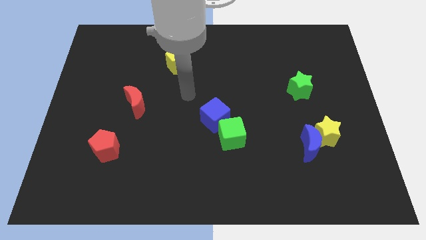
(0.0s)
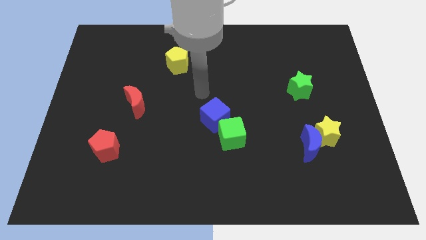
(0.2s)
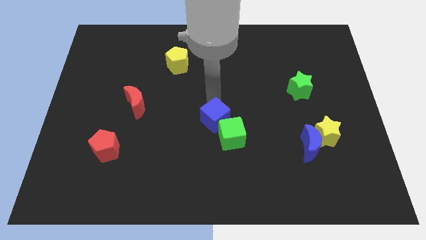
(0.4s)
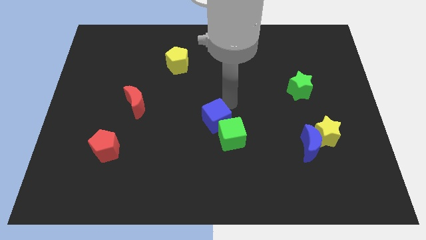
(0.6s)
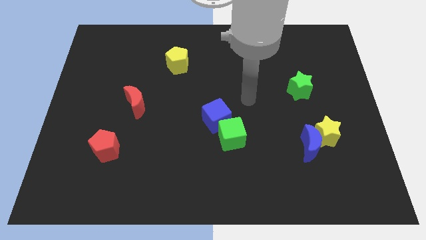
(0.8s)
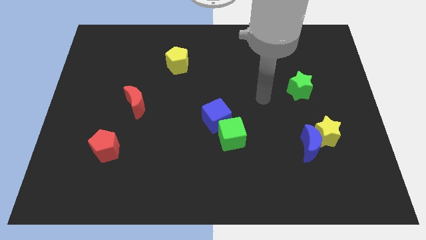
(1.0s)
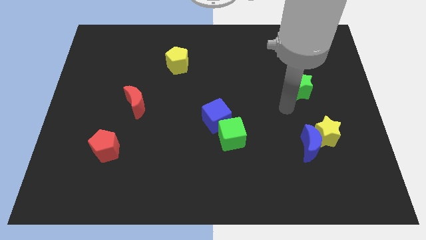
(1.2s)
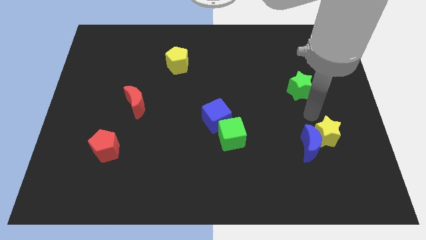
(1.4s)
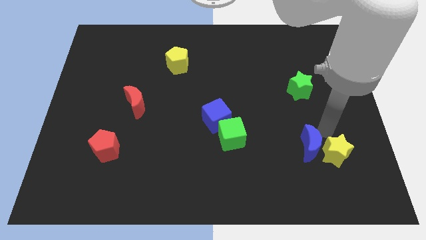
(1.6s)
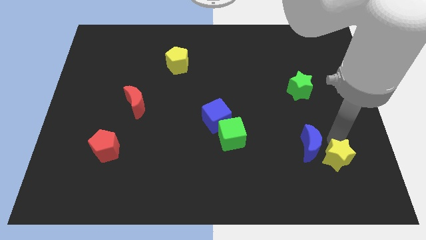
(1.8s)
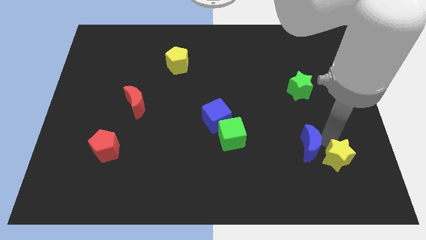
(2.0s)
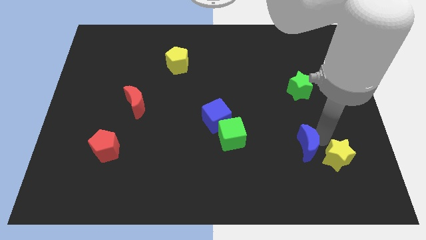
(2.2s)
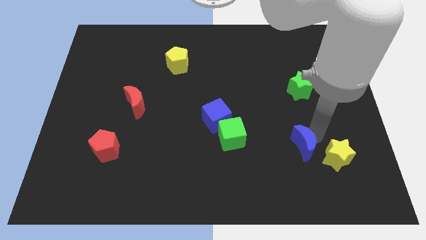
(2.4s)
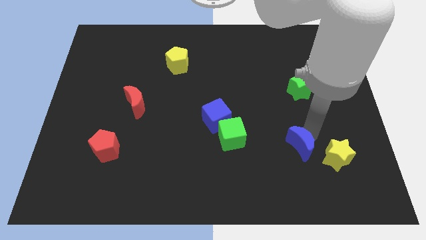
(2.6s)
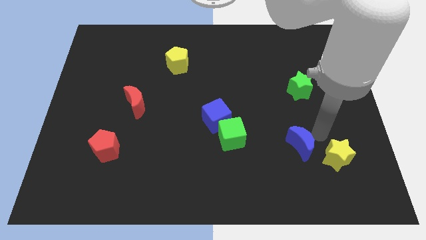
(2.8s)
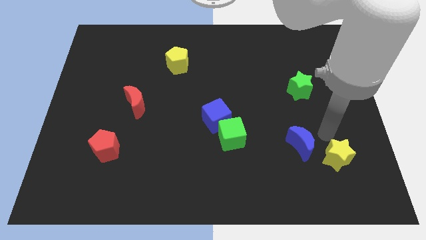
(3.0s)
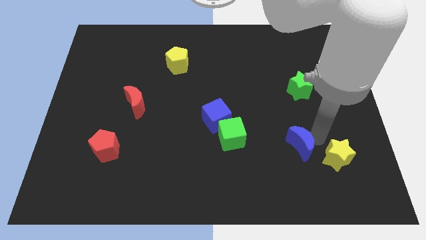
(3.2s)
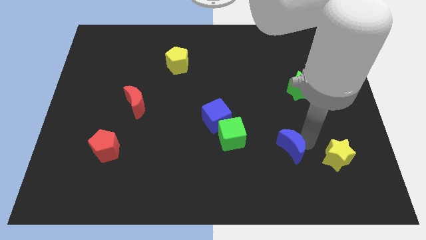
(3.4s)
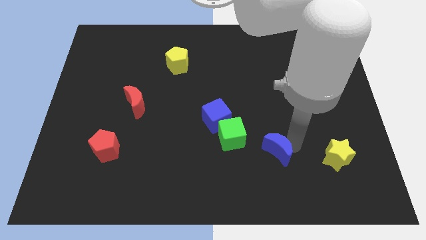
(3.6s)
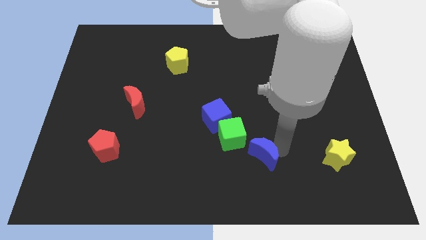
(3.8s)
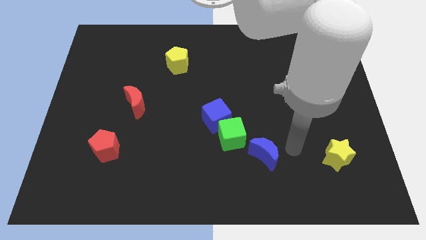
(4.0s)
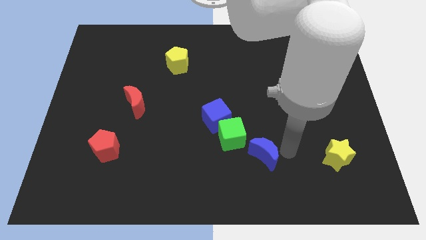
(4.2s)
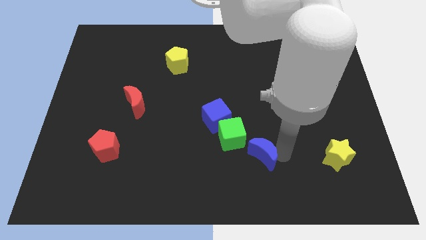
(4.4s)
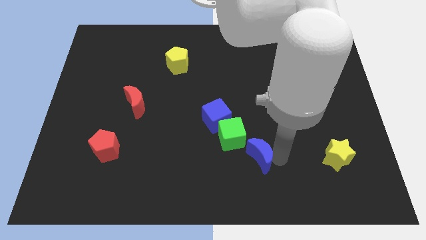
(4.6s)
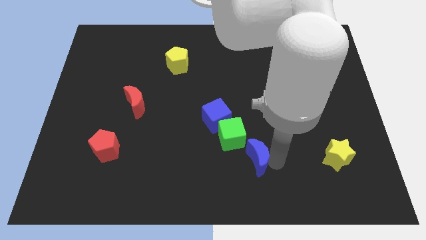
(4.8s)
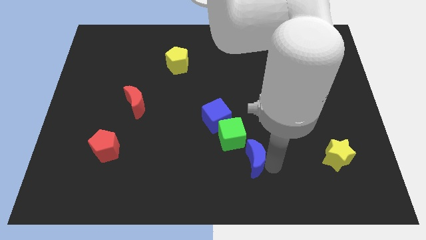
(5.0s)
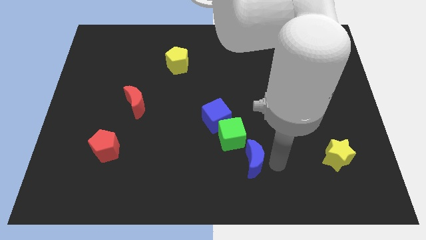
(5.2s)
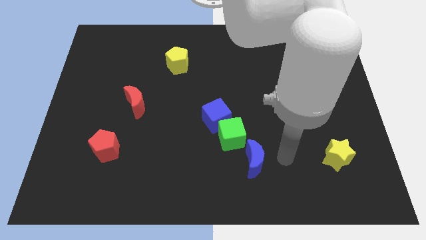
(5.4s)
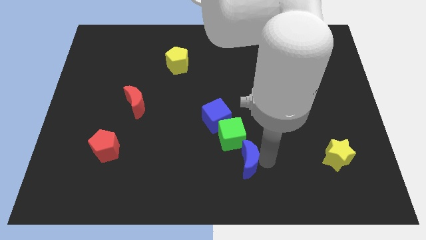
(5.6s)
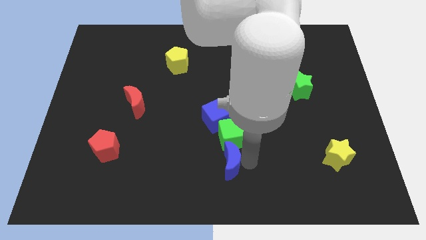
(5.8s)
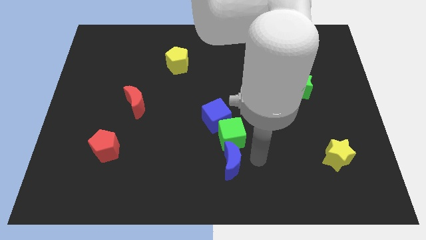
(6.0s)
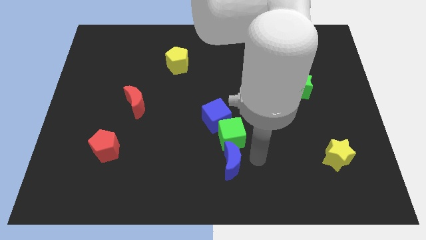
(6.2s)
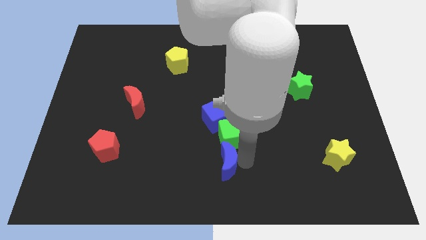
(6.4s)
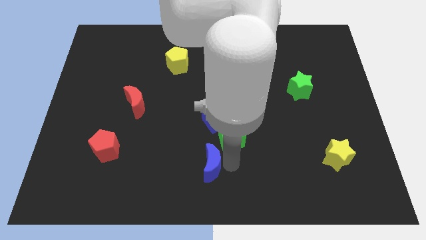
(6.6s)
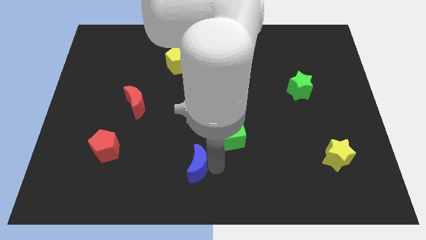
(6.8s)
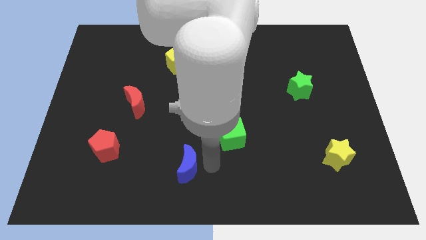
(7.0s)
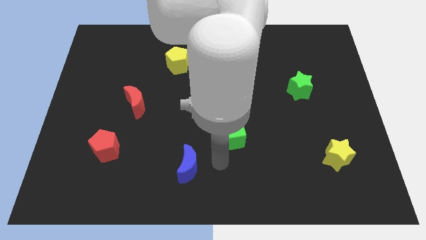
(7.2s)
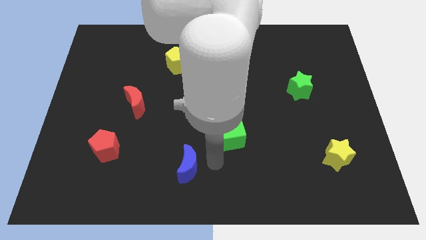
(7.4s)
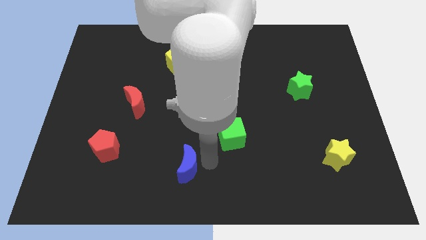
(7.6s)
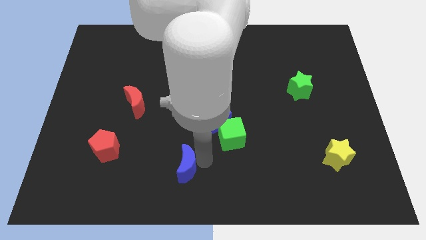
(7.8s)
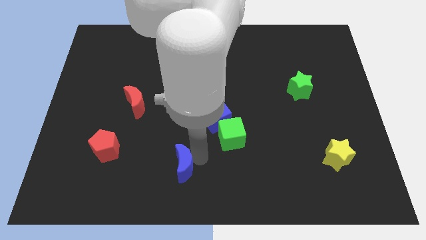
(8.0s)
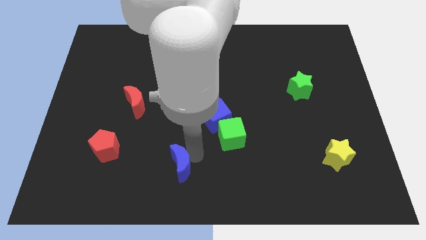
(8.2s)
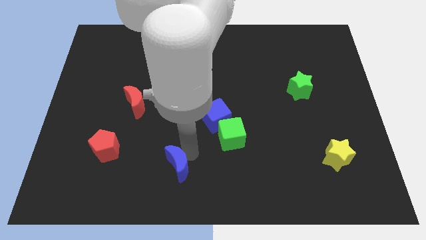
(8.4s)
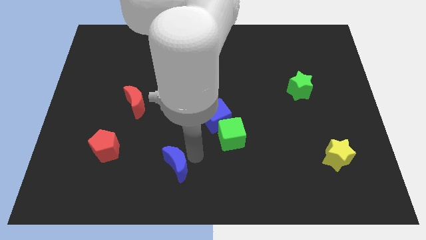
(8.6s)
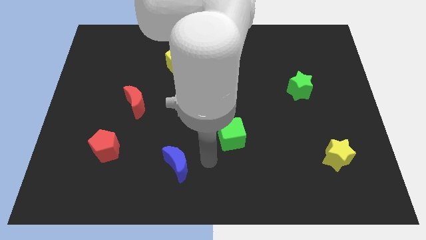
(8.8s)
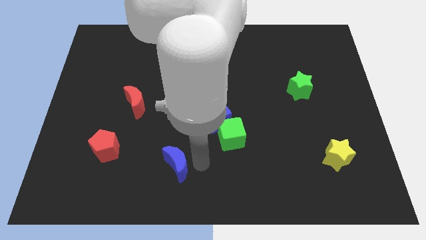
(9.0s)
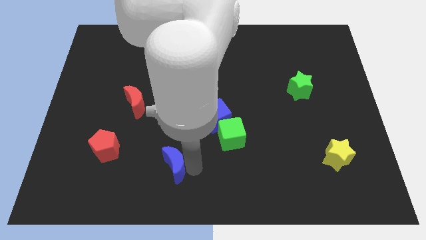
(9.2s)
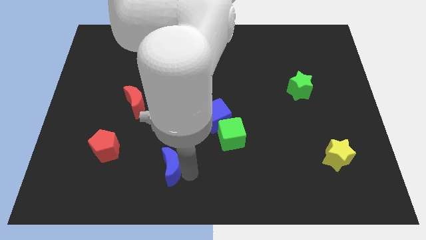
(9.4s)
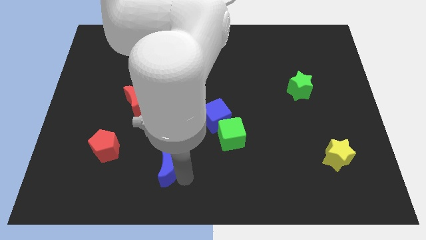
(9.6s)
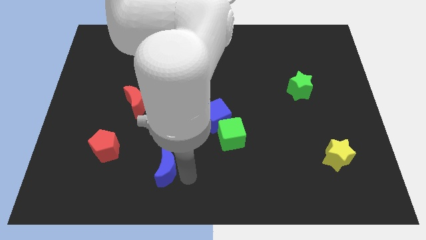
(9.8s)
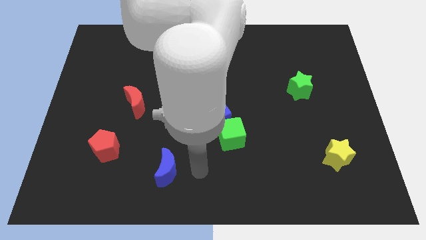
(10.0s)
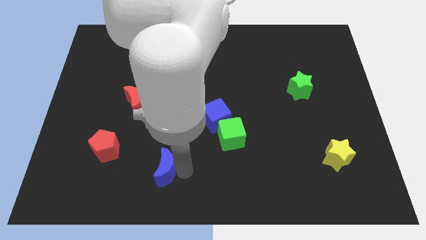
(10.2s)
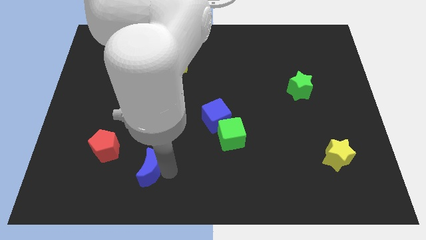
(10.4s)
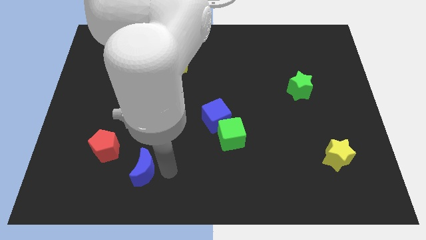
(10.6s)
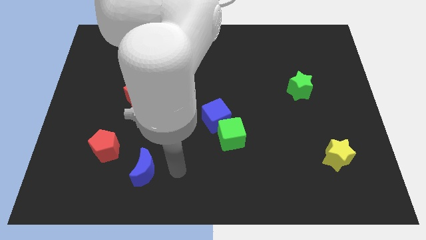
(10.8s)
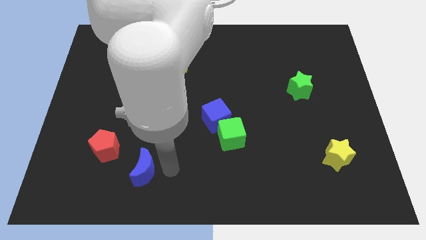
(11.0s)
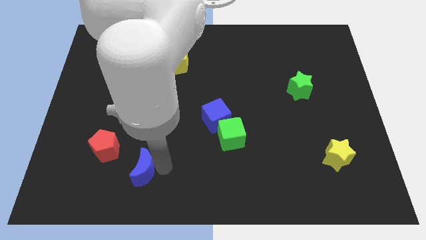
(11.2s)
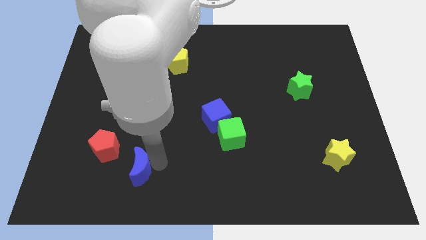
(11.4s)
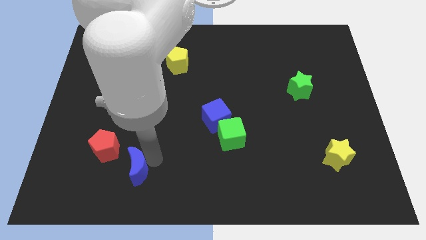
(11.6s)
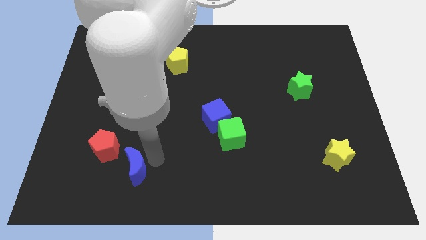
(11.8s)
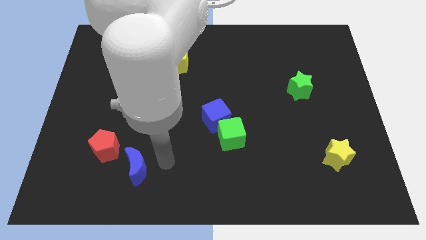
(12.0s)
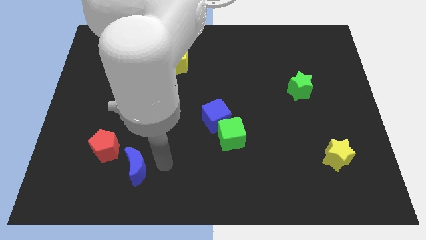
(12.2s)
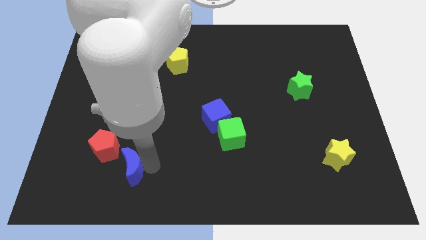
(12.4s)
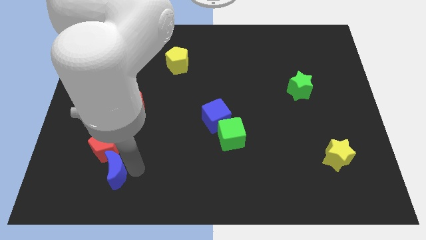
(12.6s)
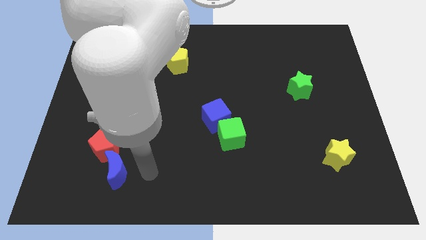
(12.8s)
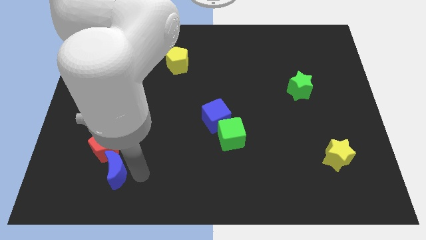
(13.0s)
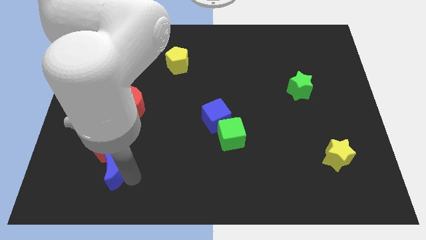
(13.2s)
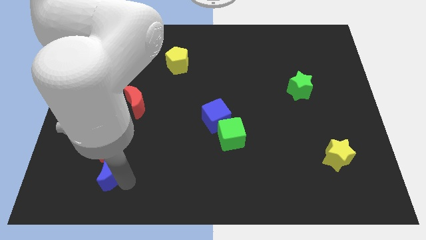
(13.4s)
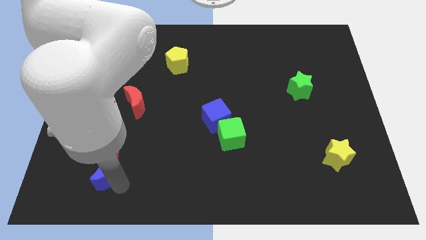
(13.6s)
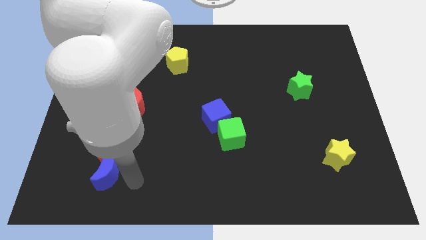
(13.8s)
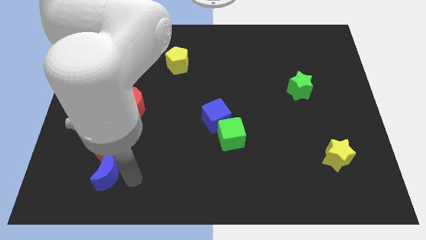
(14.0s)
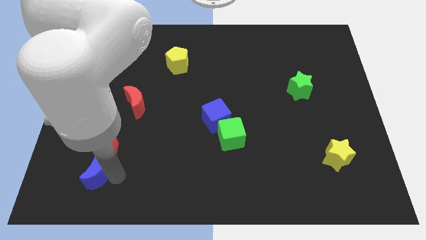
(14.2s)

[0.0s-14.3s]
move the blue moon to the bottom left side of the red pentagon
